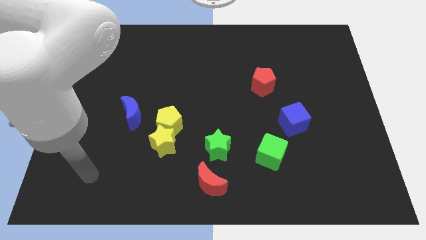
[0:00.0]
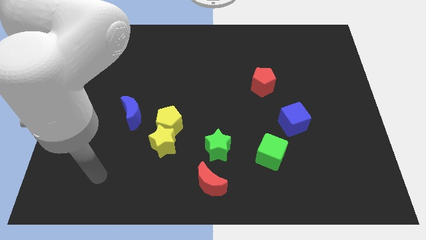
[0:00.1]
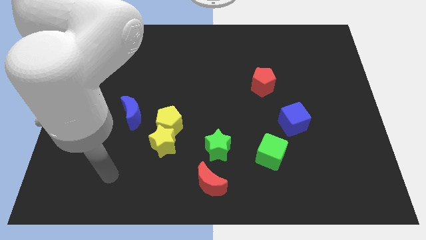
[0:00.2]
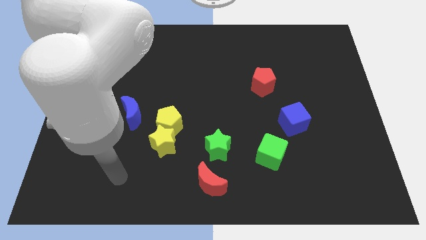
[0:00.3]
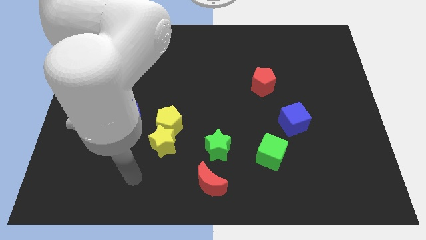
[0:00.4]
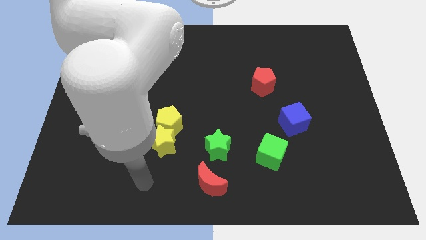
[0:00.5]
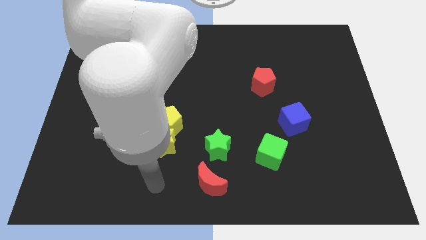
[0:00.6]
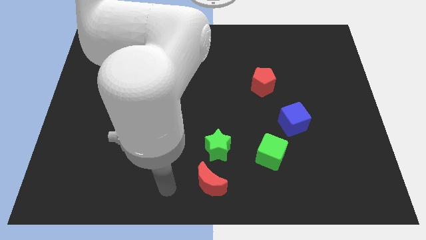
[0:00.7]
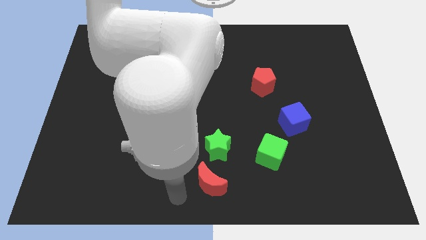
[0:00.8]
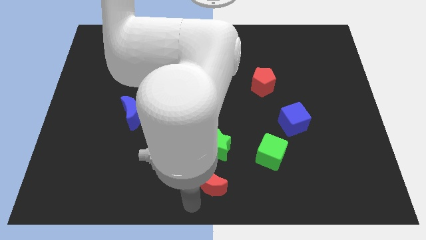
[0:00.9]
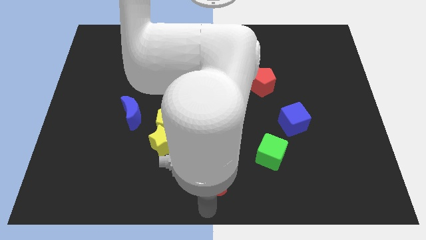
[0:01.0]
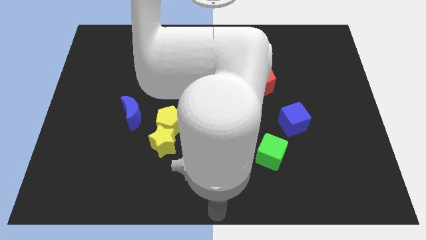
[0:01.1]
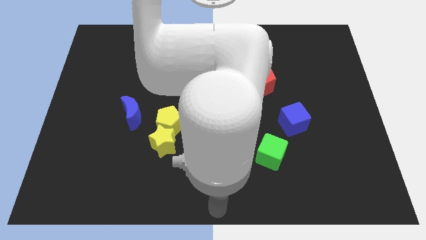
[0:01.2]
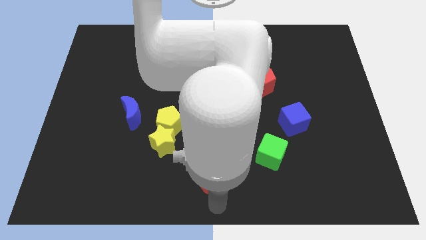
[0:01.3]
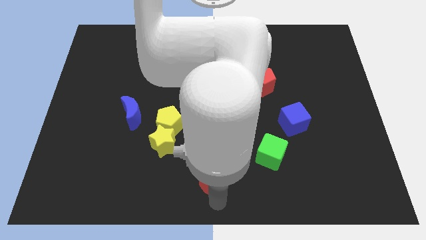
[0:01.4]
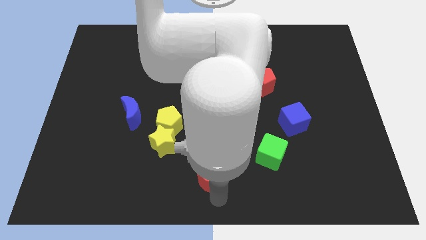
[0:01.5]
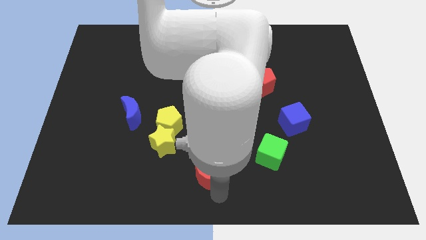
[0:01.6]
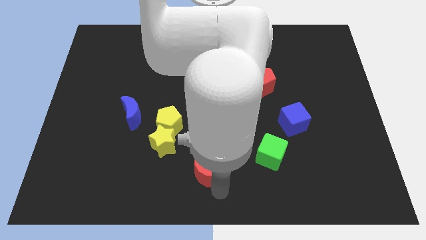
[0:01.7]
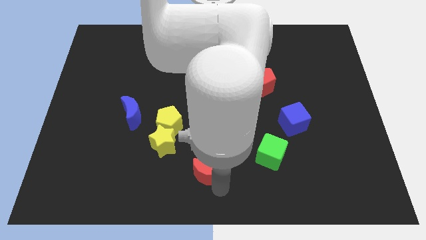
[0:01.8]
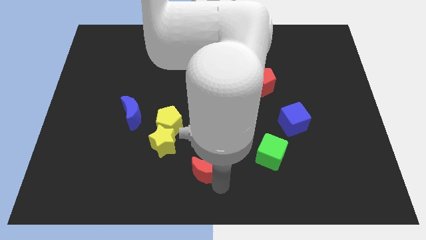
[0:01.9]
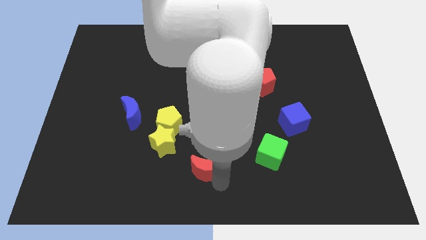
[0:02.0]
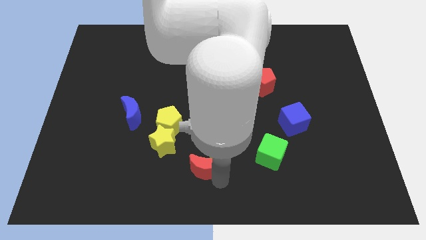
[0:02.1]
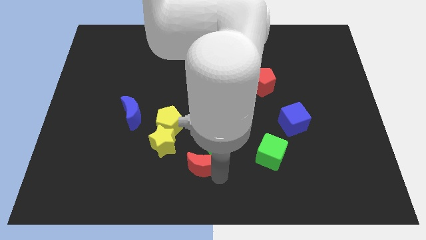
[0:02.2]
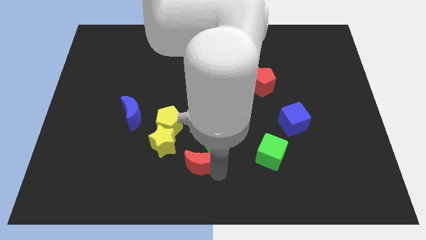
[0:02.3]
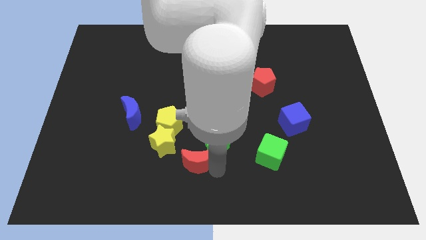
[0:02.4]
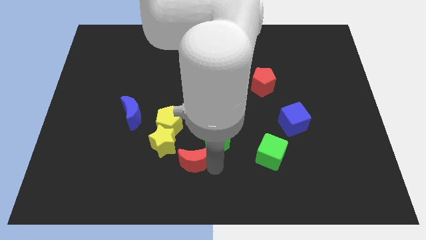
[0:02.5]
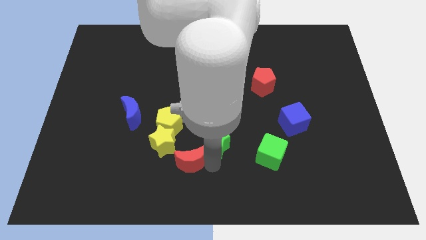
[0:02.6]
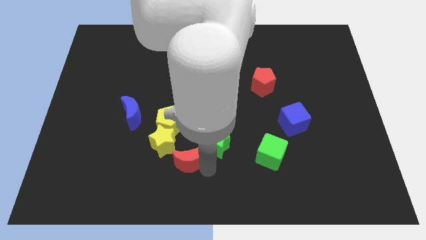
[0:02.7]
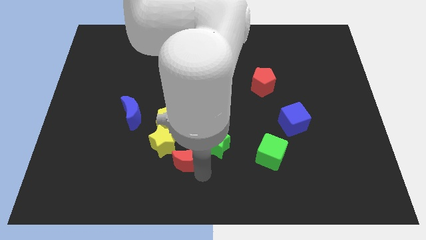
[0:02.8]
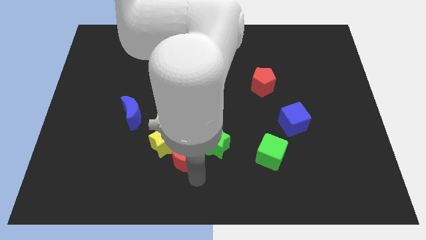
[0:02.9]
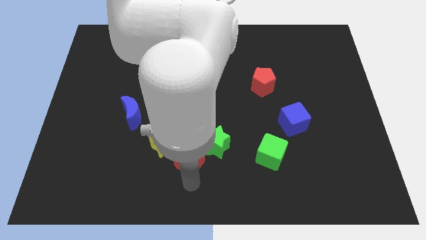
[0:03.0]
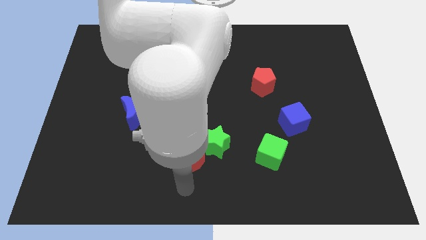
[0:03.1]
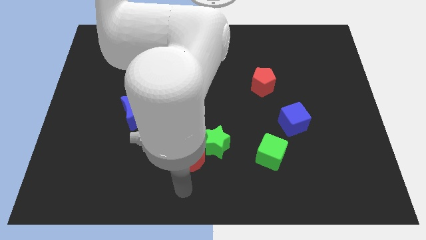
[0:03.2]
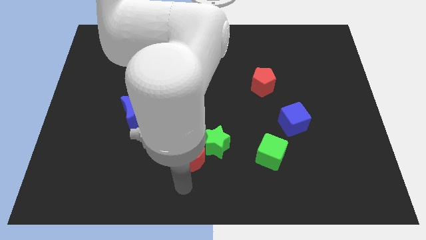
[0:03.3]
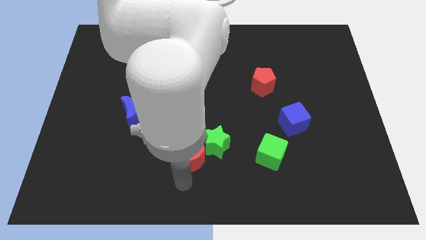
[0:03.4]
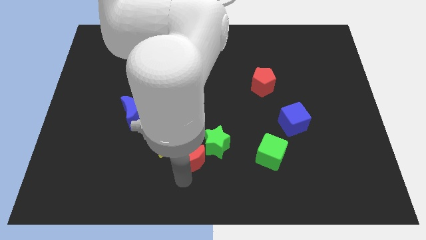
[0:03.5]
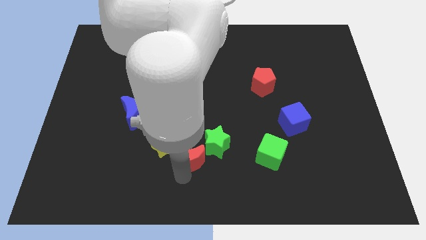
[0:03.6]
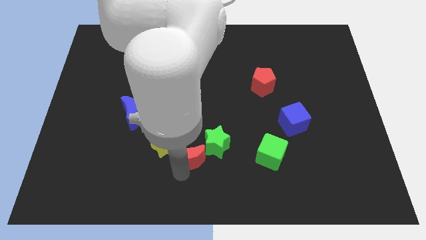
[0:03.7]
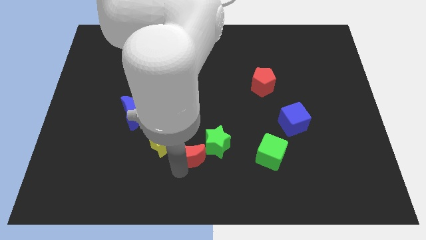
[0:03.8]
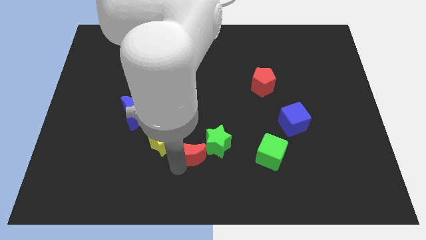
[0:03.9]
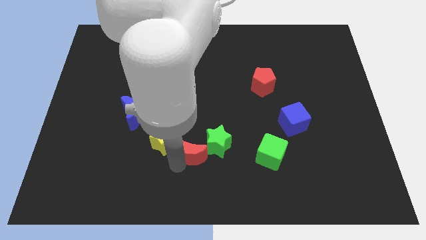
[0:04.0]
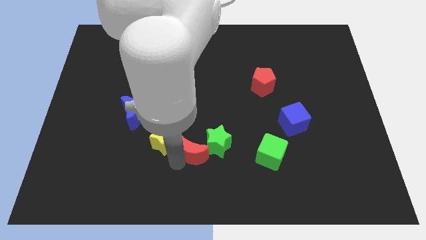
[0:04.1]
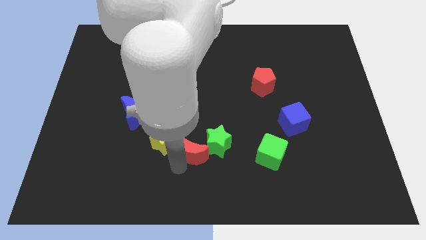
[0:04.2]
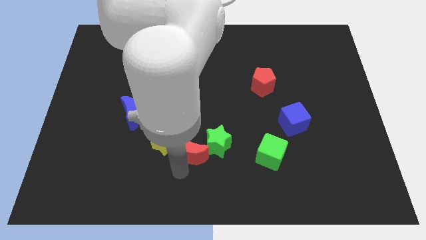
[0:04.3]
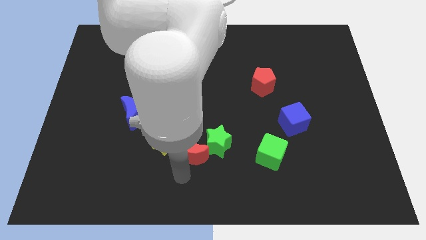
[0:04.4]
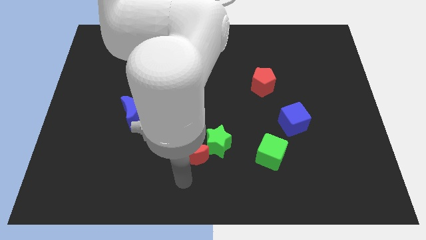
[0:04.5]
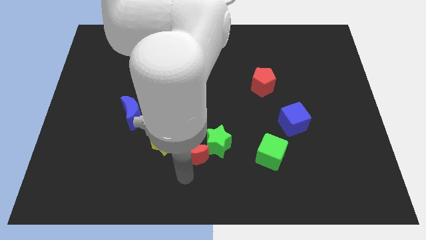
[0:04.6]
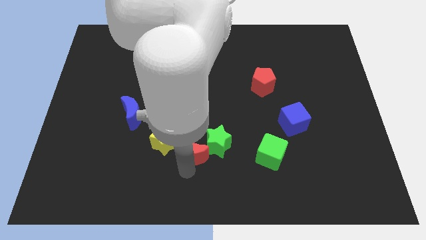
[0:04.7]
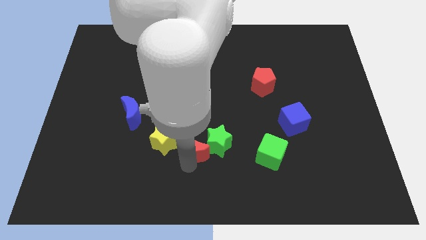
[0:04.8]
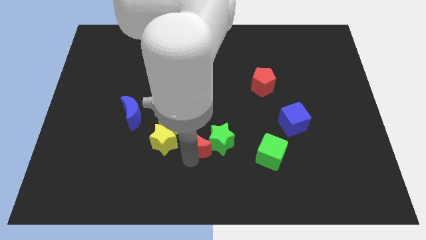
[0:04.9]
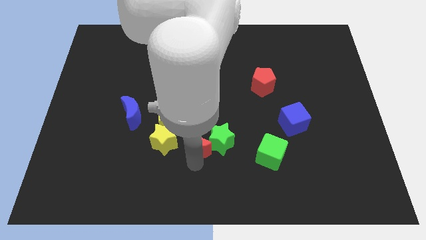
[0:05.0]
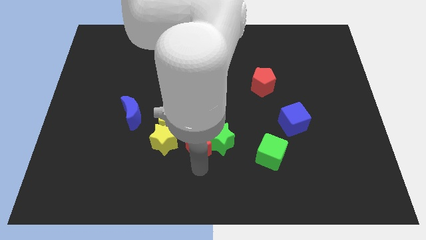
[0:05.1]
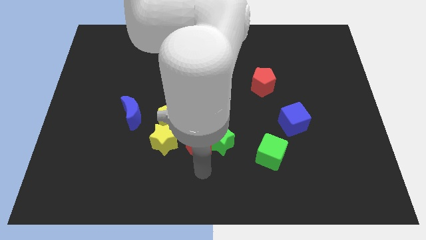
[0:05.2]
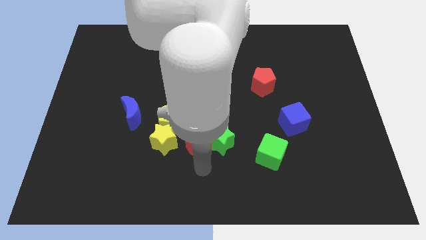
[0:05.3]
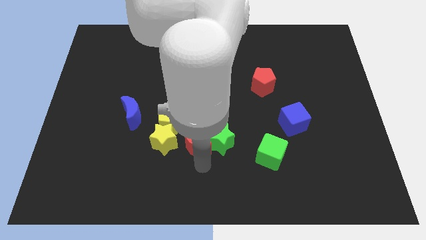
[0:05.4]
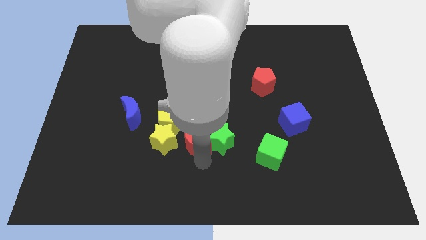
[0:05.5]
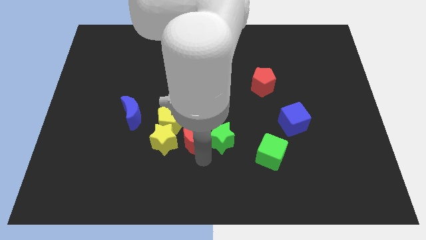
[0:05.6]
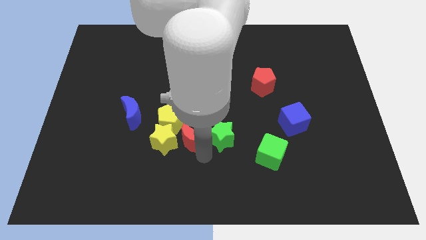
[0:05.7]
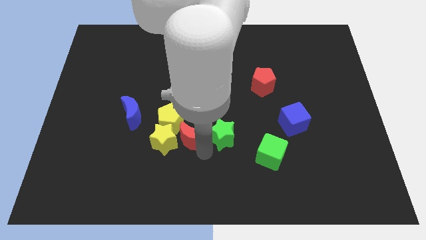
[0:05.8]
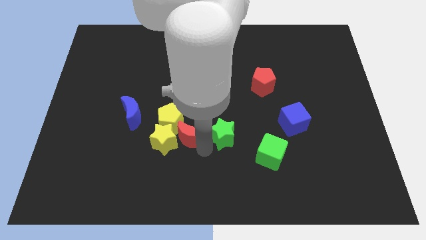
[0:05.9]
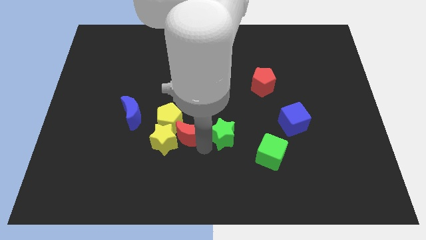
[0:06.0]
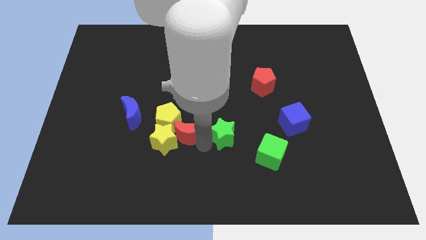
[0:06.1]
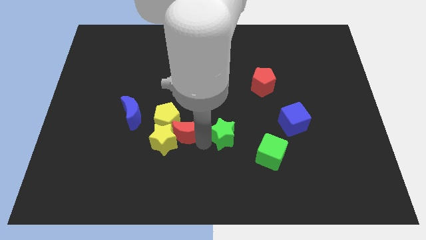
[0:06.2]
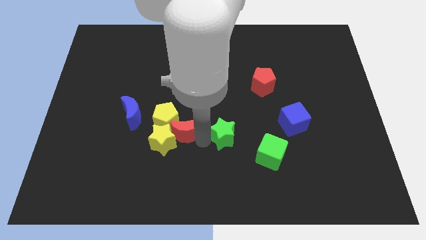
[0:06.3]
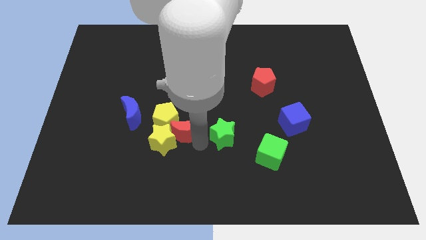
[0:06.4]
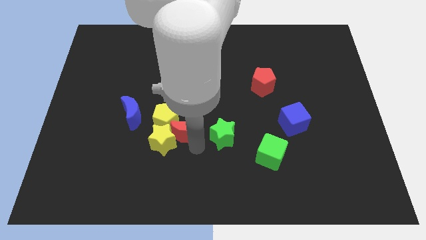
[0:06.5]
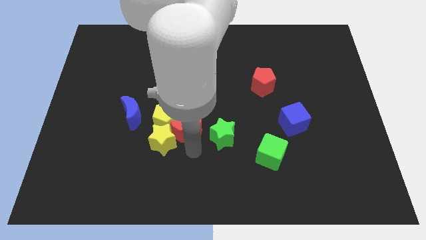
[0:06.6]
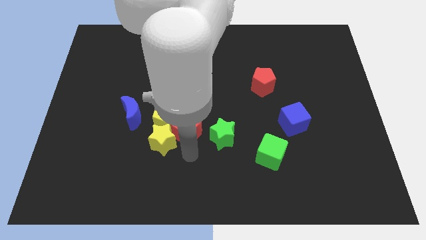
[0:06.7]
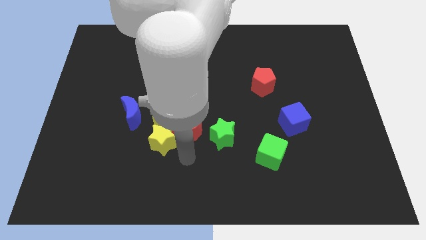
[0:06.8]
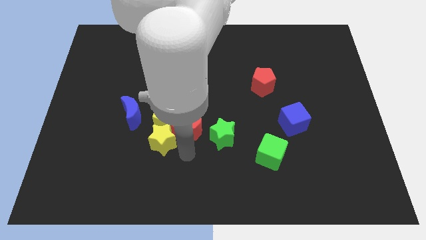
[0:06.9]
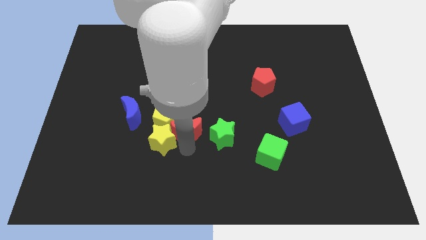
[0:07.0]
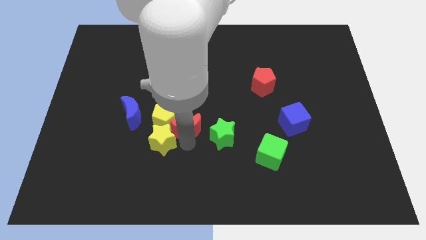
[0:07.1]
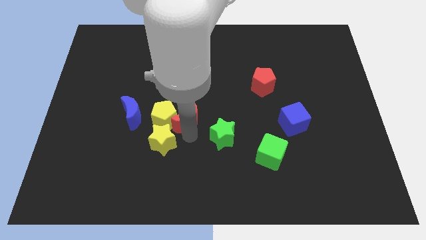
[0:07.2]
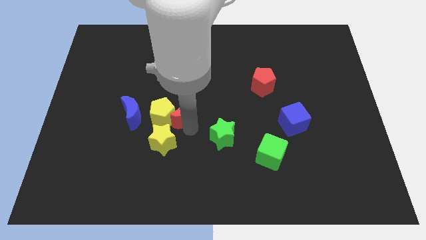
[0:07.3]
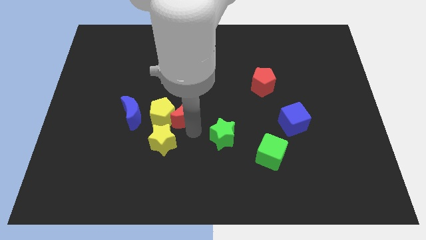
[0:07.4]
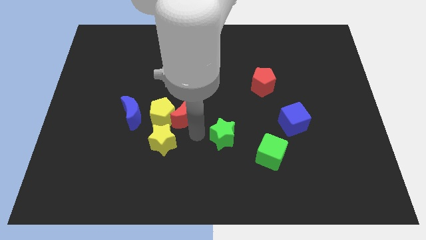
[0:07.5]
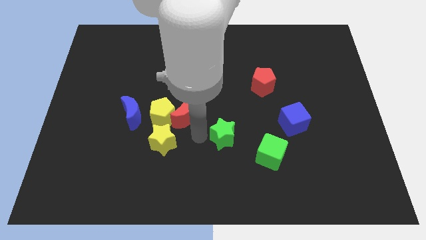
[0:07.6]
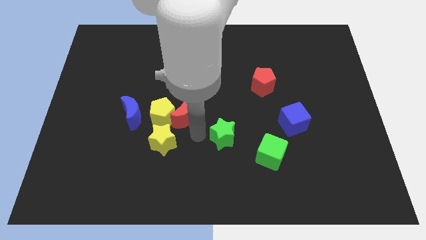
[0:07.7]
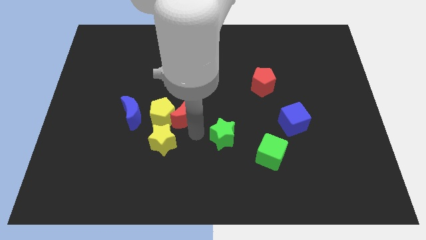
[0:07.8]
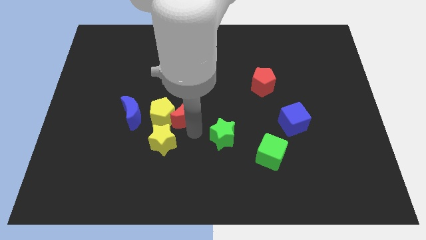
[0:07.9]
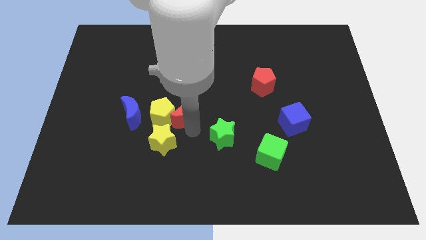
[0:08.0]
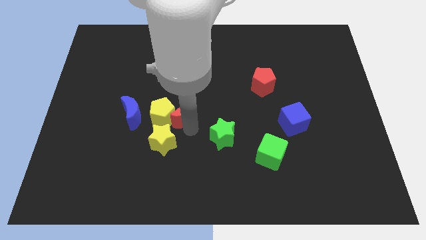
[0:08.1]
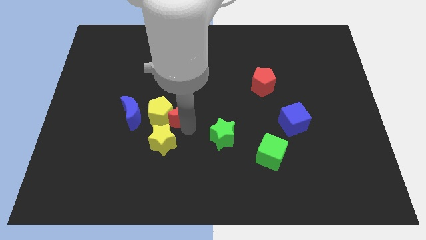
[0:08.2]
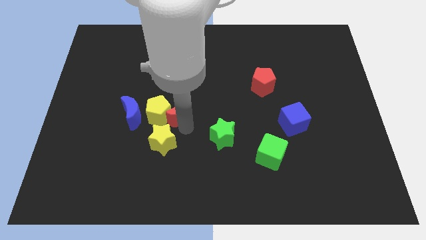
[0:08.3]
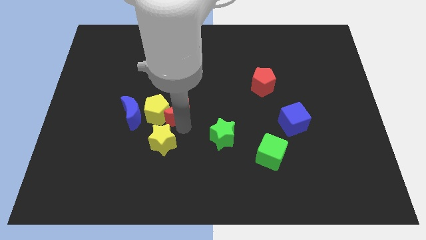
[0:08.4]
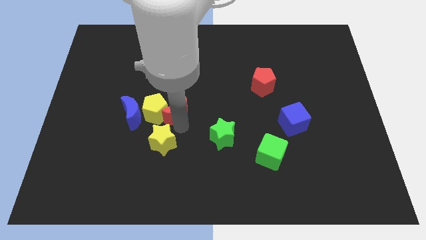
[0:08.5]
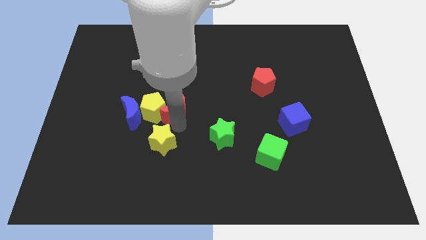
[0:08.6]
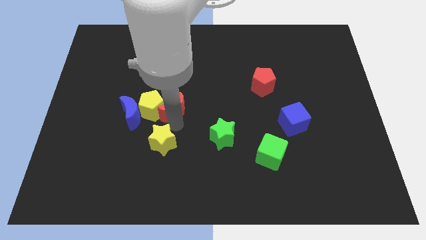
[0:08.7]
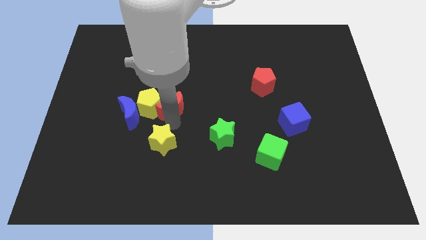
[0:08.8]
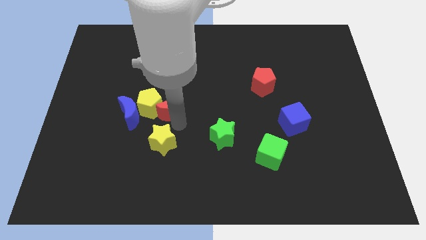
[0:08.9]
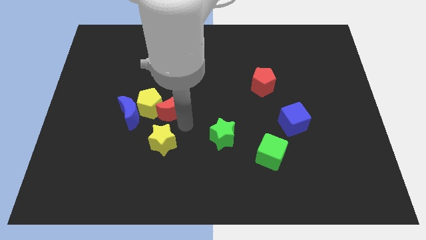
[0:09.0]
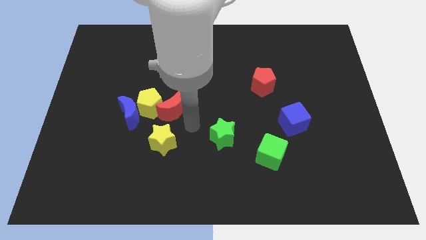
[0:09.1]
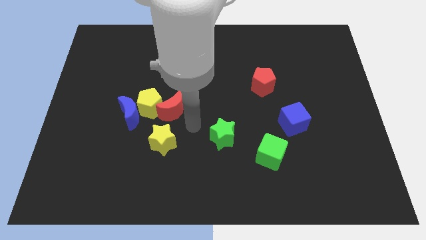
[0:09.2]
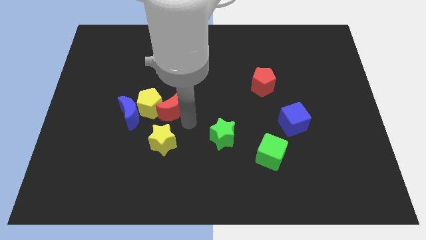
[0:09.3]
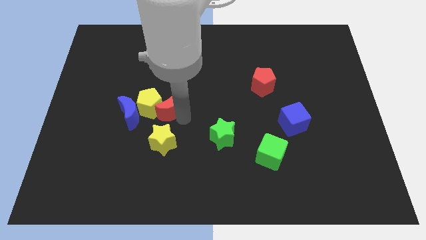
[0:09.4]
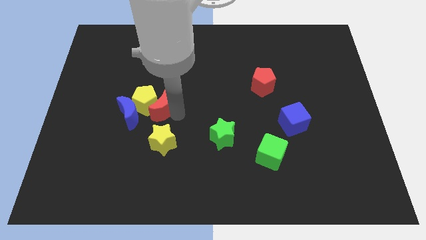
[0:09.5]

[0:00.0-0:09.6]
put the red moon to the top right of the blue moon
